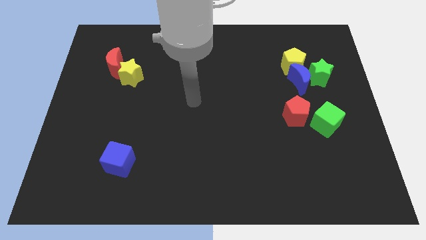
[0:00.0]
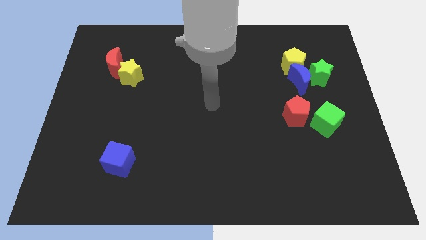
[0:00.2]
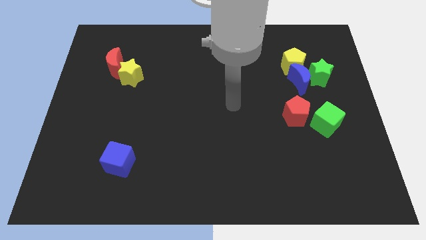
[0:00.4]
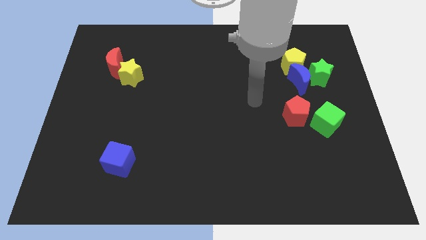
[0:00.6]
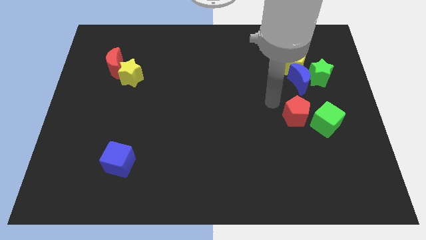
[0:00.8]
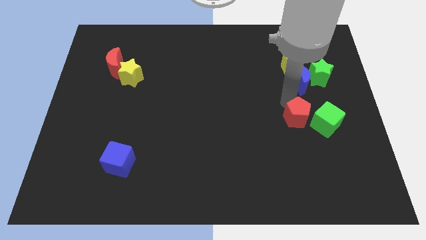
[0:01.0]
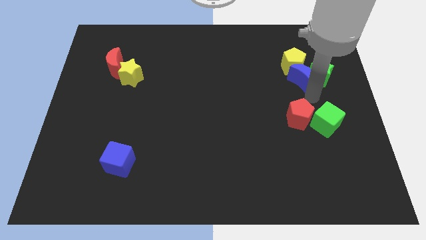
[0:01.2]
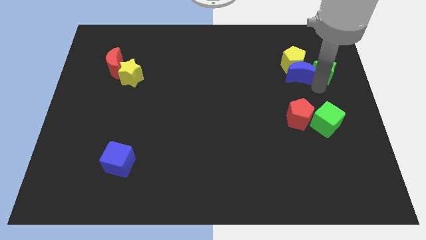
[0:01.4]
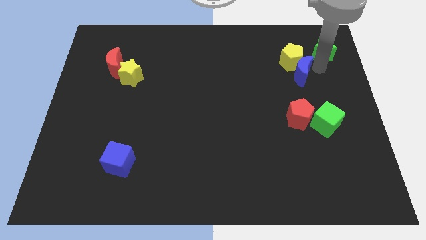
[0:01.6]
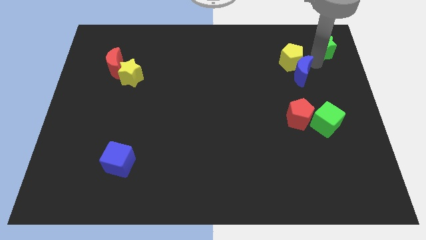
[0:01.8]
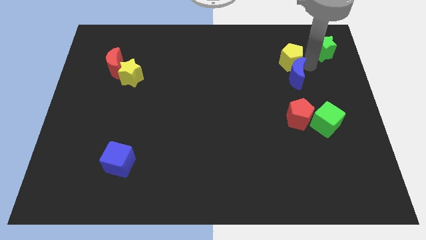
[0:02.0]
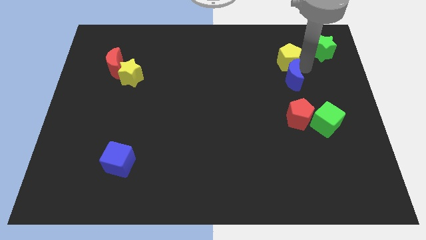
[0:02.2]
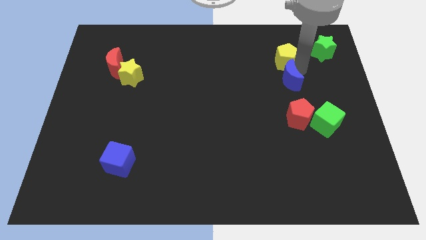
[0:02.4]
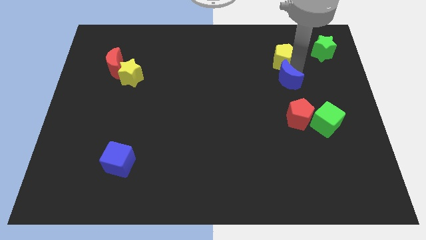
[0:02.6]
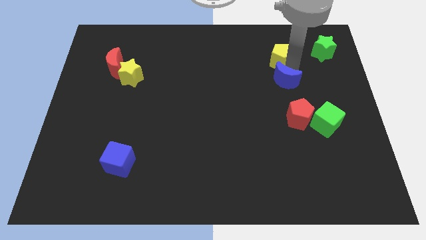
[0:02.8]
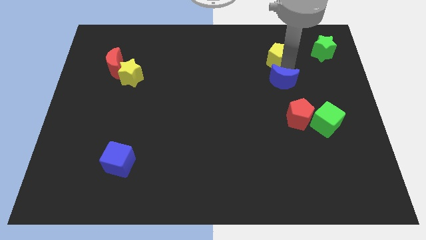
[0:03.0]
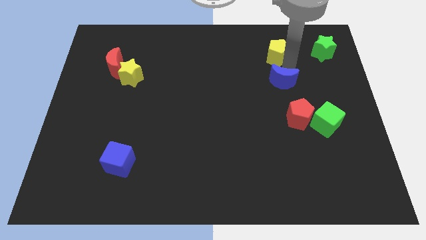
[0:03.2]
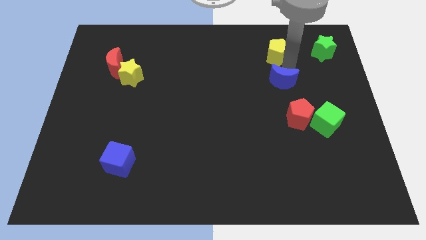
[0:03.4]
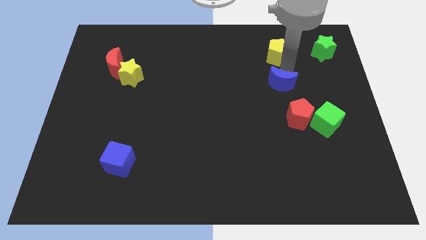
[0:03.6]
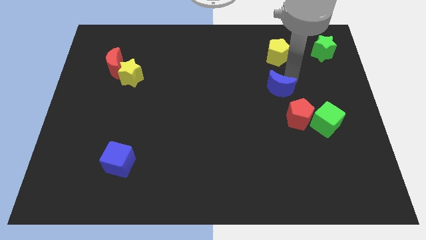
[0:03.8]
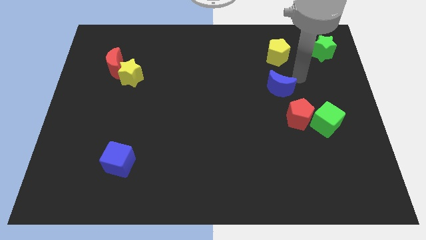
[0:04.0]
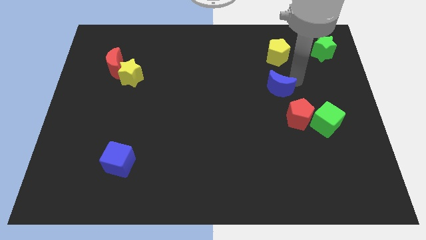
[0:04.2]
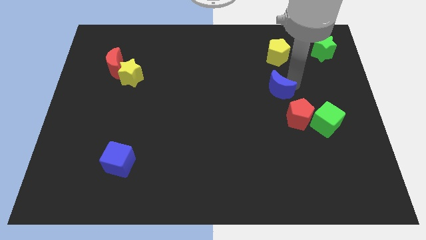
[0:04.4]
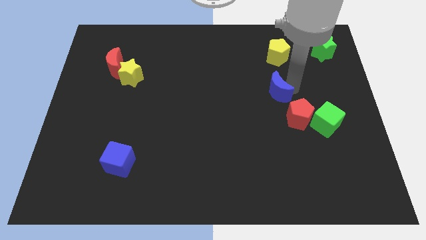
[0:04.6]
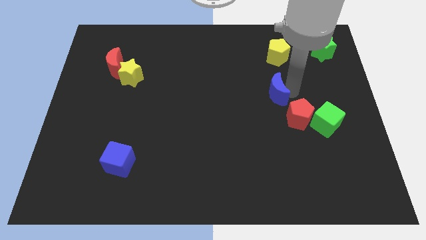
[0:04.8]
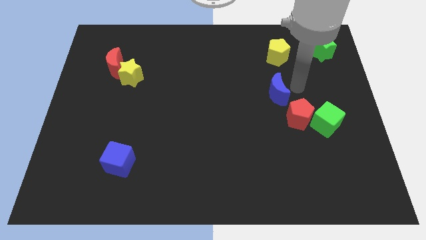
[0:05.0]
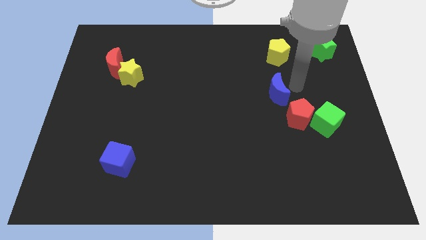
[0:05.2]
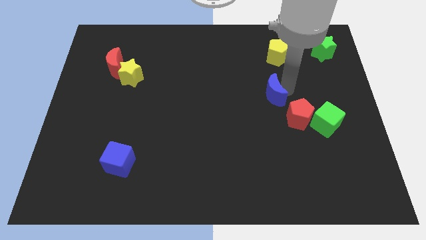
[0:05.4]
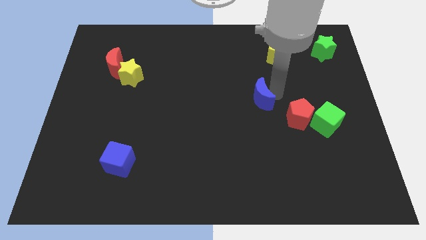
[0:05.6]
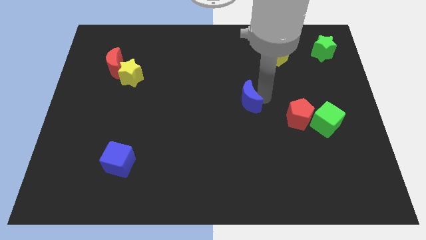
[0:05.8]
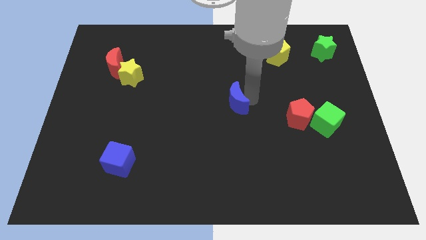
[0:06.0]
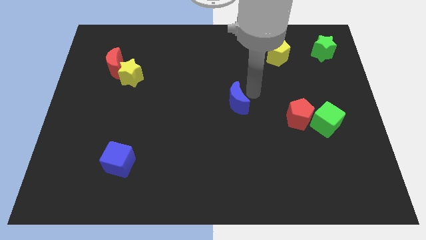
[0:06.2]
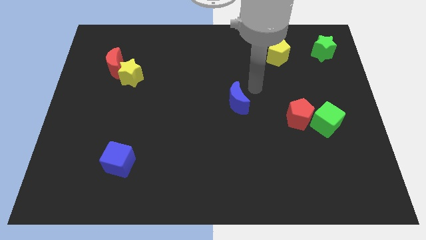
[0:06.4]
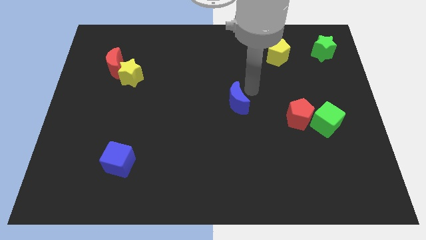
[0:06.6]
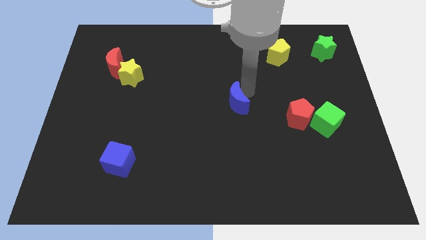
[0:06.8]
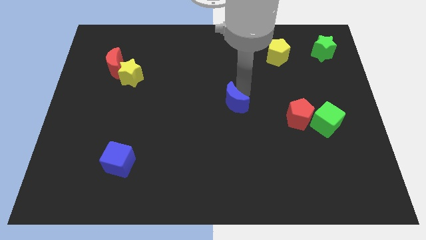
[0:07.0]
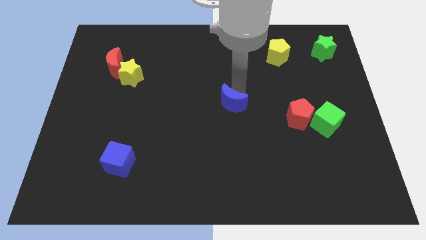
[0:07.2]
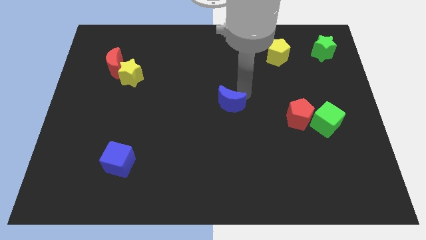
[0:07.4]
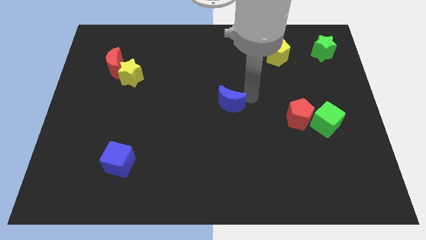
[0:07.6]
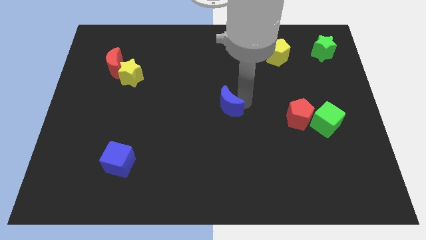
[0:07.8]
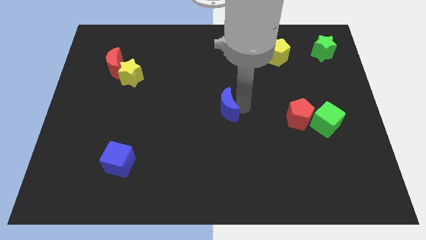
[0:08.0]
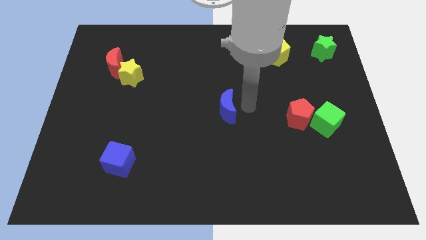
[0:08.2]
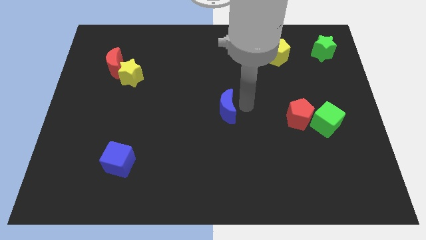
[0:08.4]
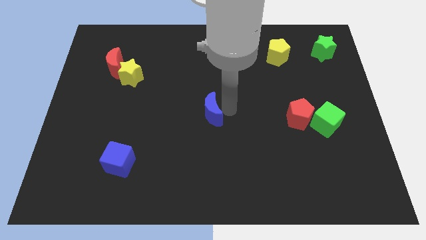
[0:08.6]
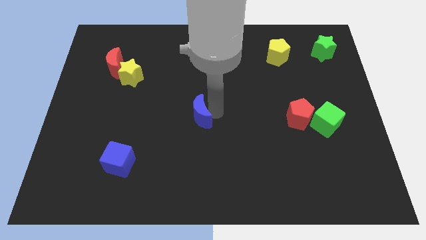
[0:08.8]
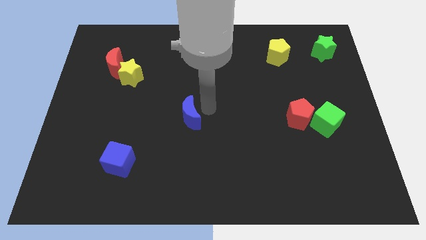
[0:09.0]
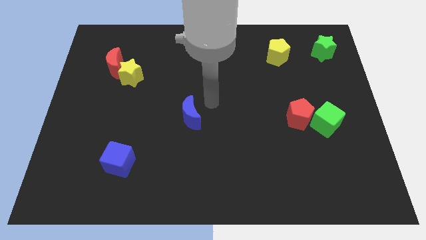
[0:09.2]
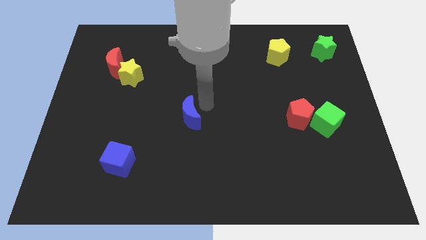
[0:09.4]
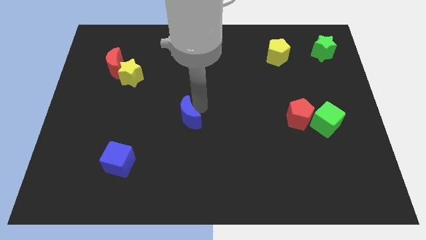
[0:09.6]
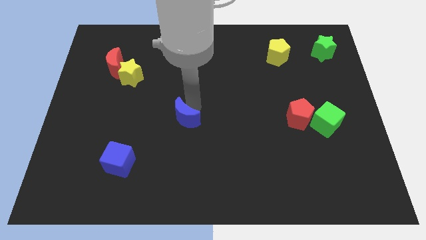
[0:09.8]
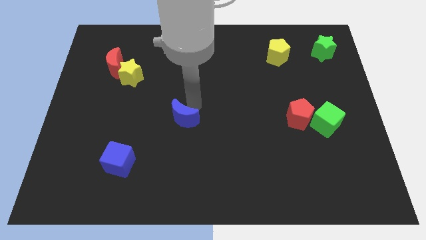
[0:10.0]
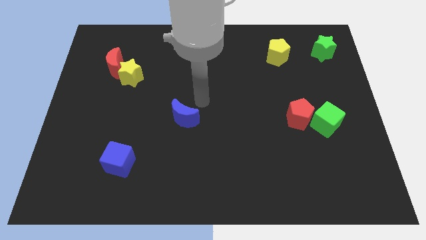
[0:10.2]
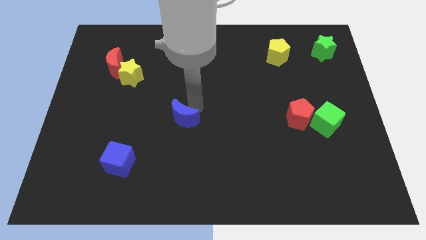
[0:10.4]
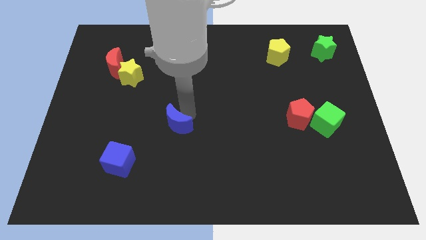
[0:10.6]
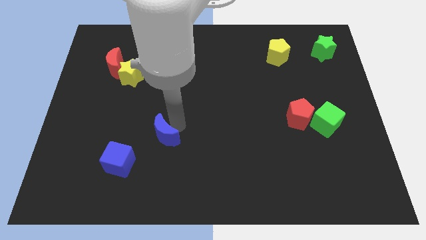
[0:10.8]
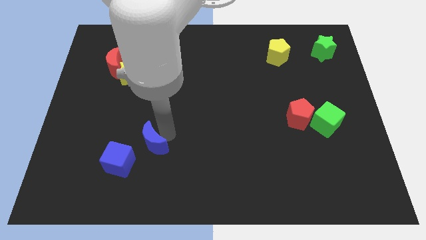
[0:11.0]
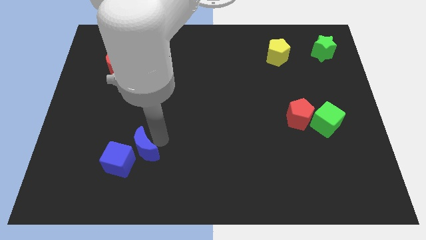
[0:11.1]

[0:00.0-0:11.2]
put the blue moon close to the blue cube

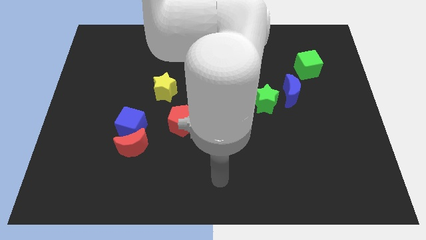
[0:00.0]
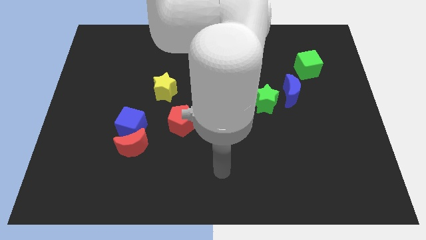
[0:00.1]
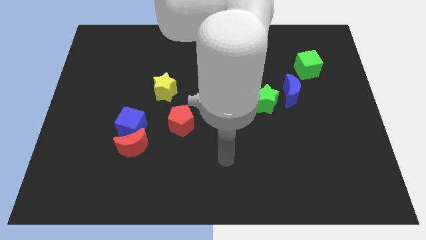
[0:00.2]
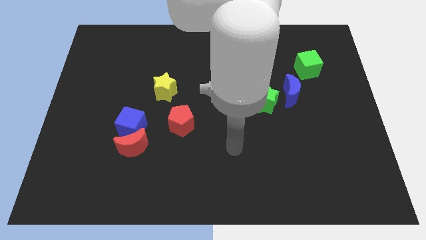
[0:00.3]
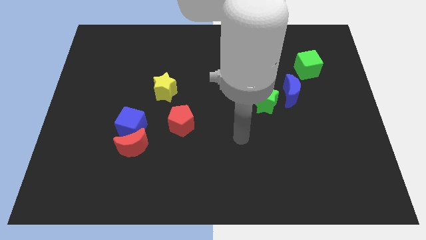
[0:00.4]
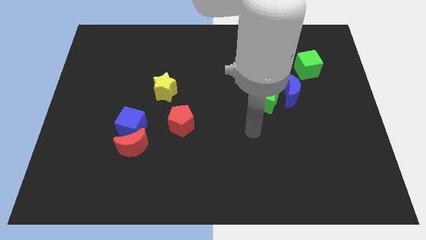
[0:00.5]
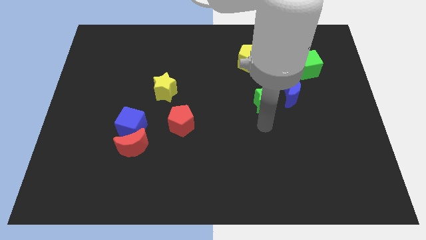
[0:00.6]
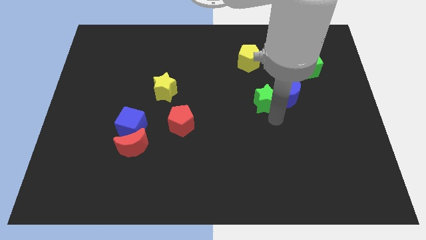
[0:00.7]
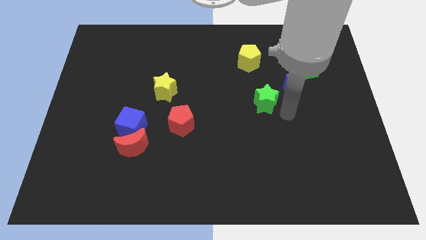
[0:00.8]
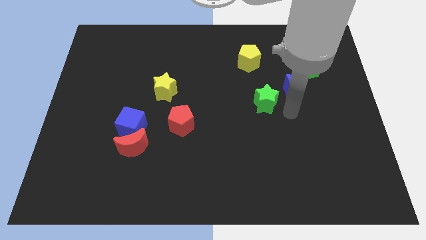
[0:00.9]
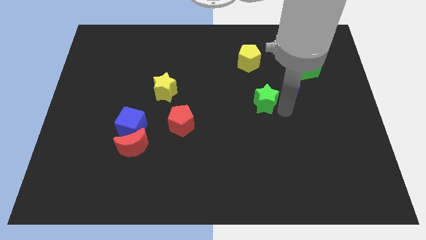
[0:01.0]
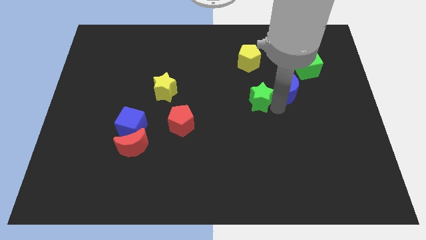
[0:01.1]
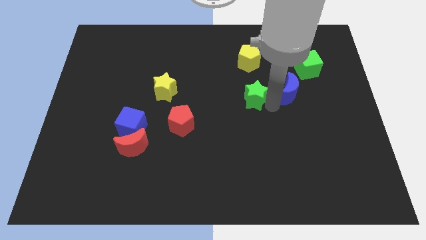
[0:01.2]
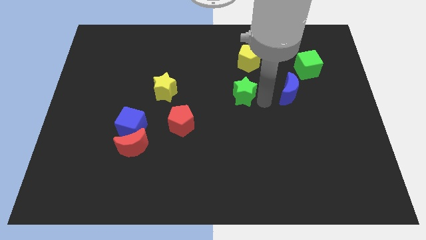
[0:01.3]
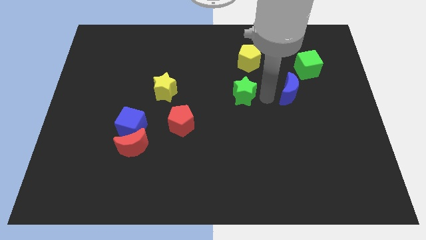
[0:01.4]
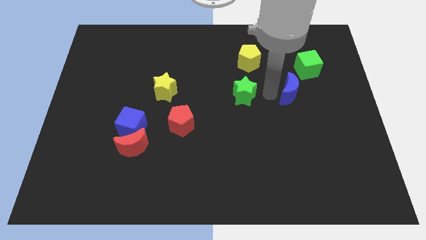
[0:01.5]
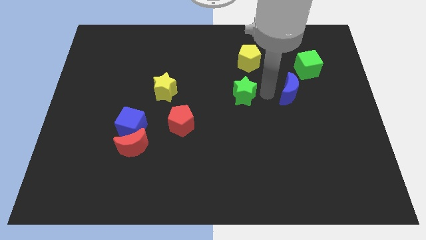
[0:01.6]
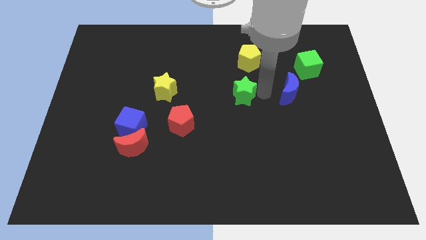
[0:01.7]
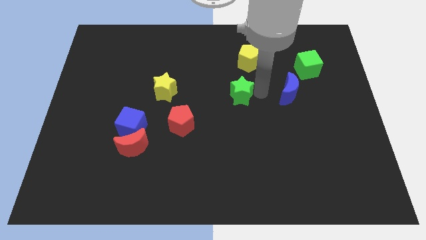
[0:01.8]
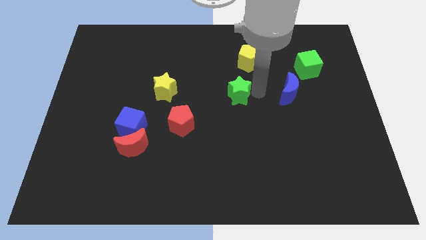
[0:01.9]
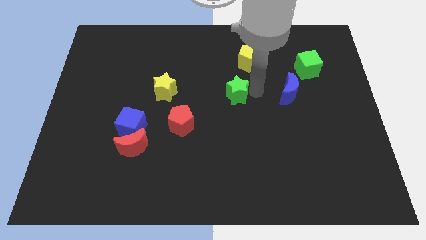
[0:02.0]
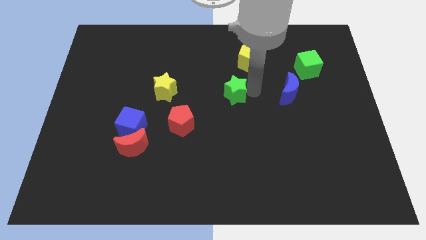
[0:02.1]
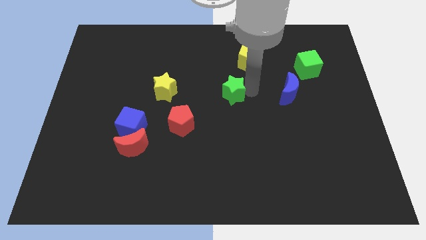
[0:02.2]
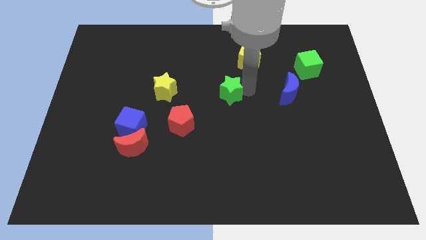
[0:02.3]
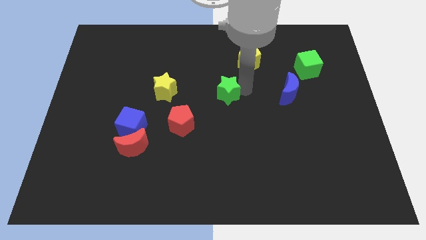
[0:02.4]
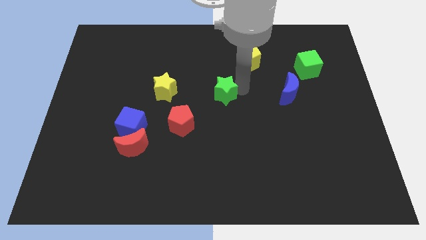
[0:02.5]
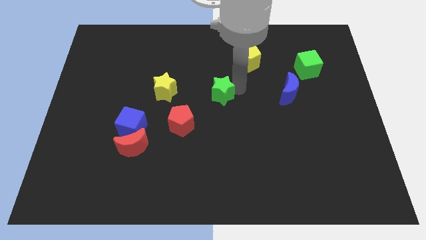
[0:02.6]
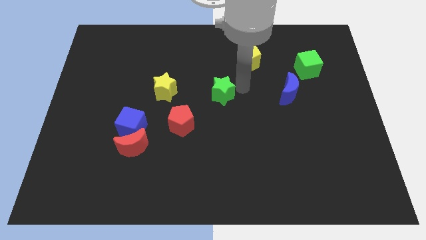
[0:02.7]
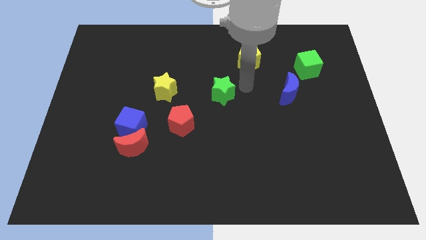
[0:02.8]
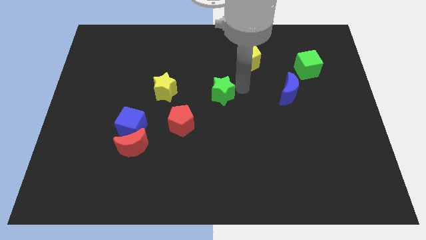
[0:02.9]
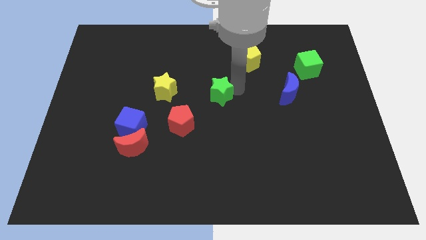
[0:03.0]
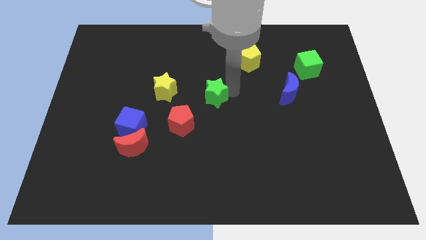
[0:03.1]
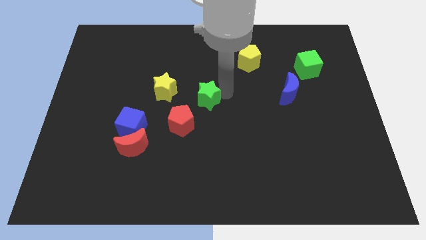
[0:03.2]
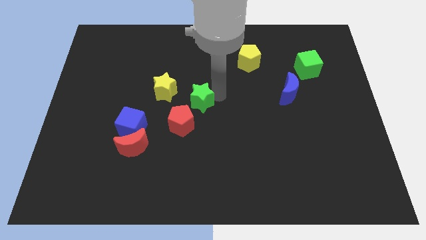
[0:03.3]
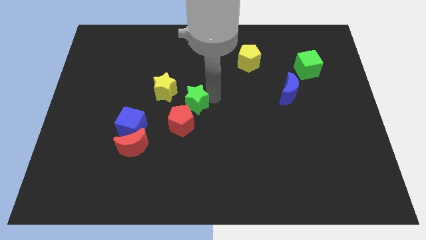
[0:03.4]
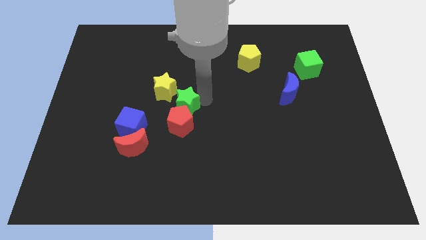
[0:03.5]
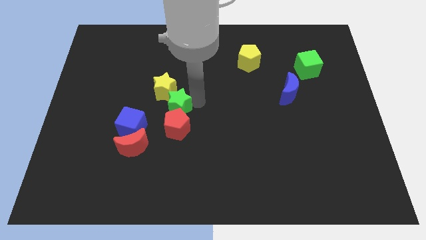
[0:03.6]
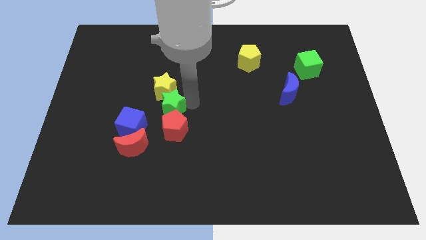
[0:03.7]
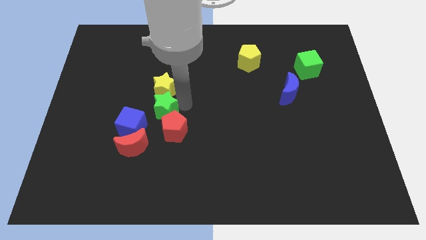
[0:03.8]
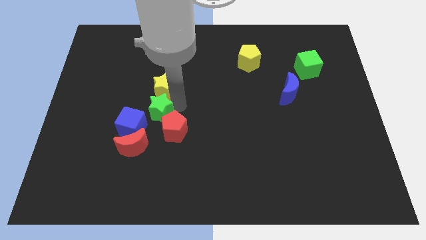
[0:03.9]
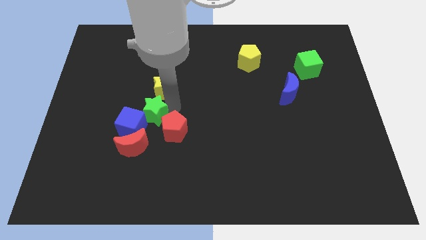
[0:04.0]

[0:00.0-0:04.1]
push the green star to the blue cube
